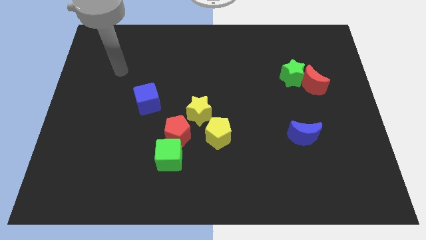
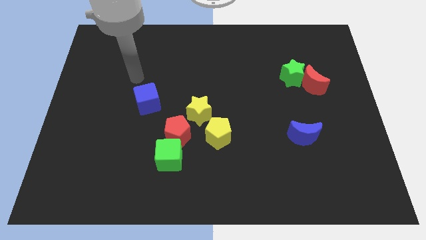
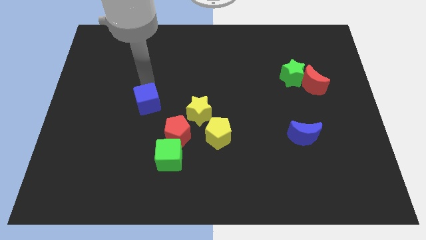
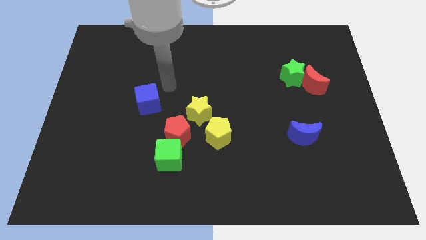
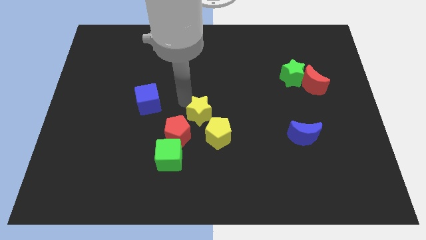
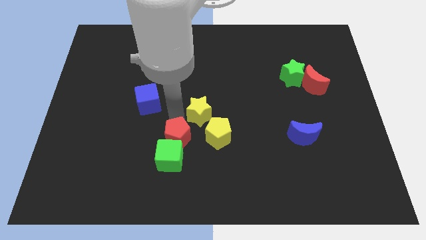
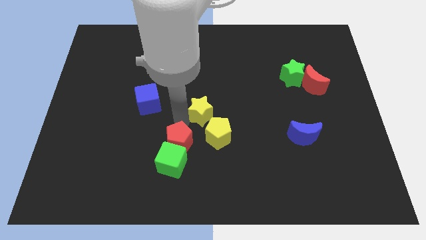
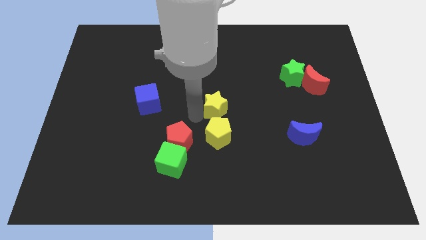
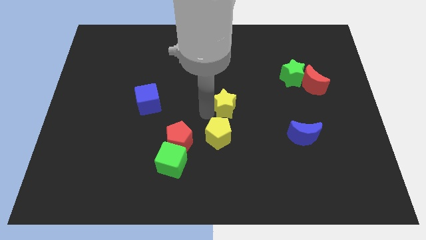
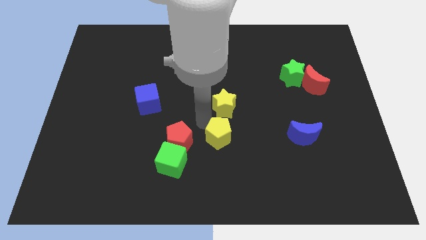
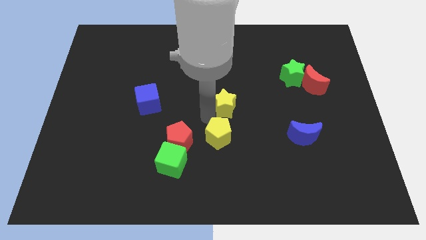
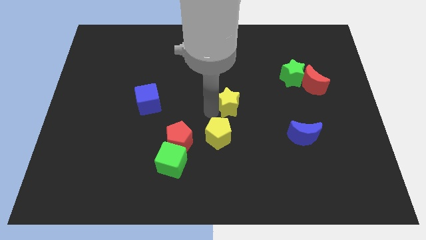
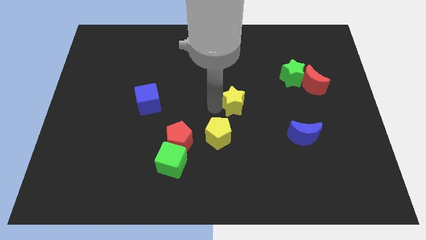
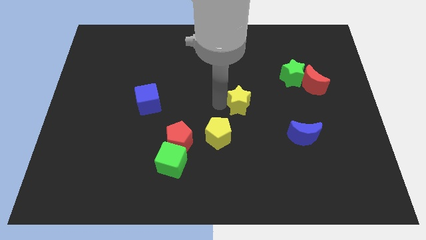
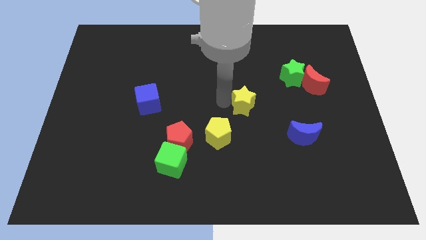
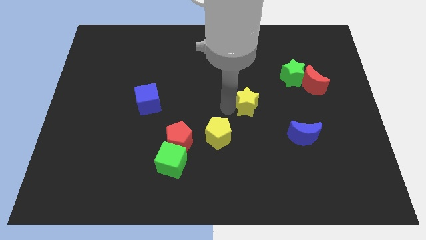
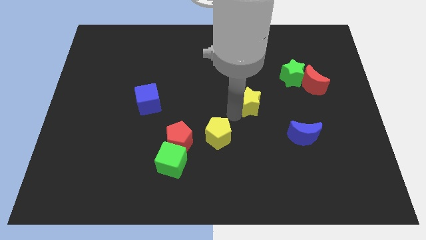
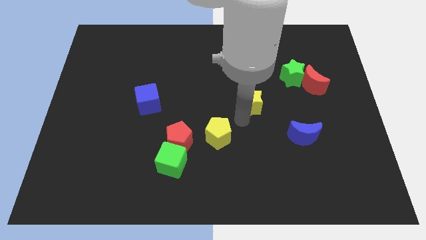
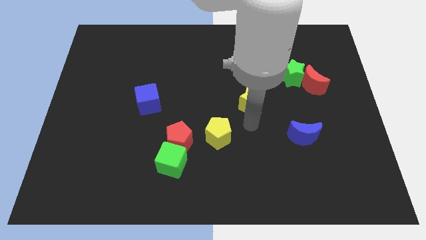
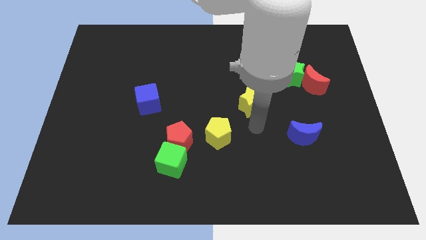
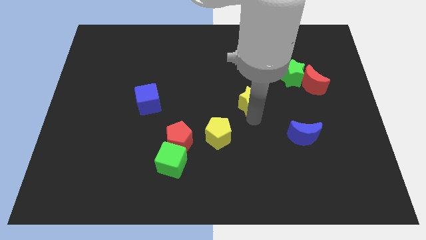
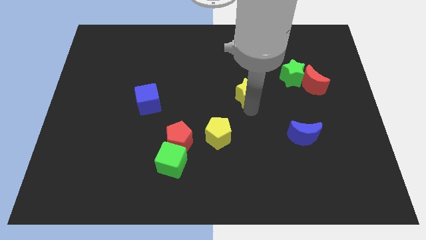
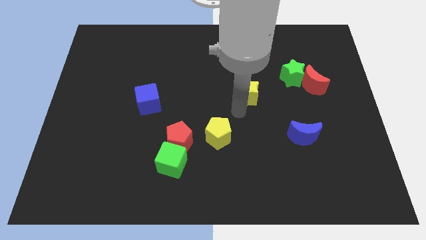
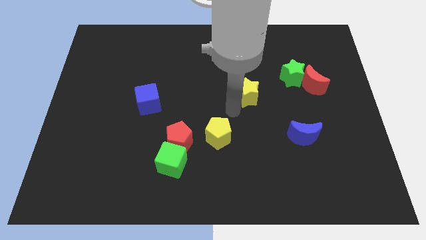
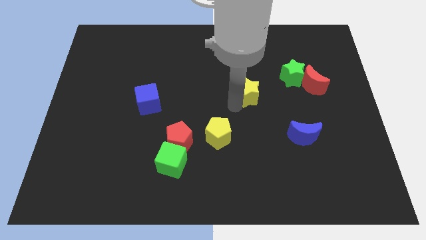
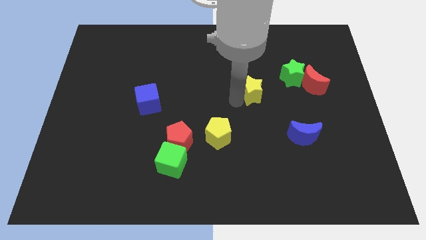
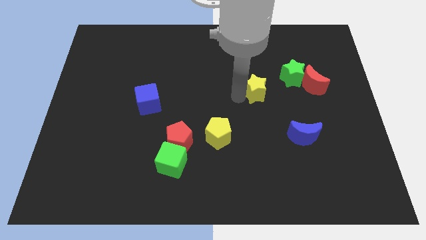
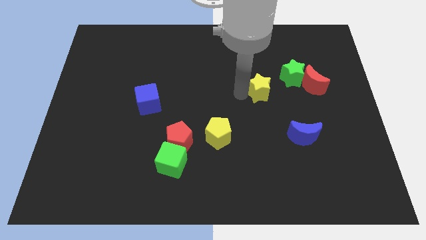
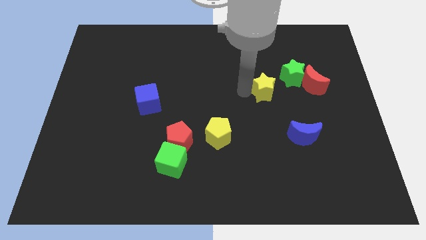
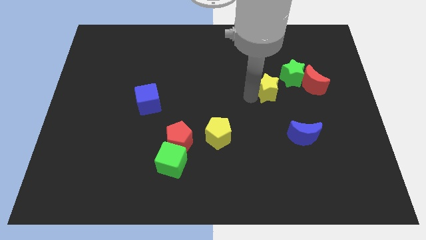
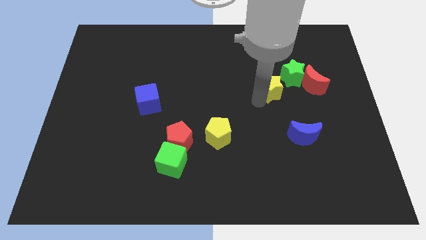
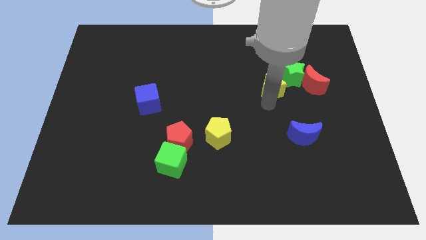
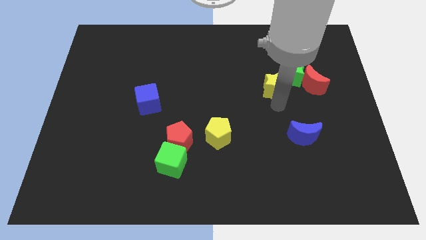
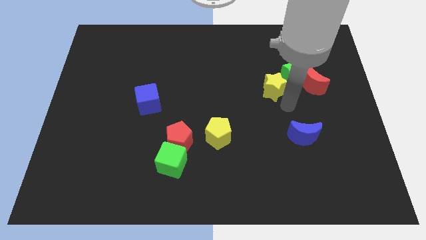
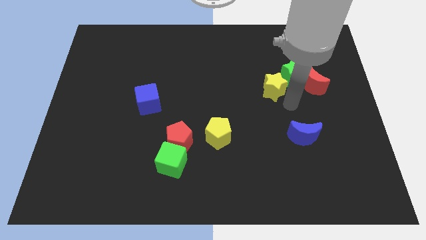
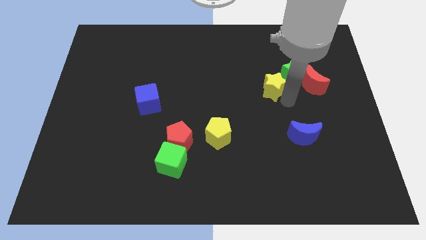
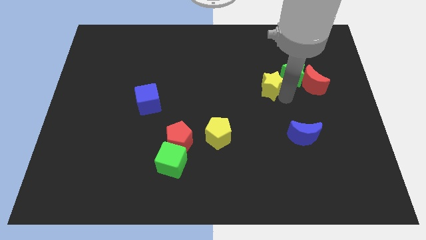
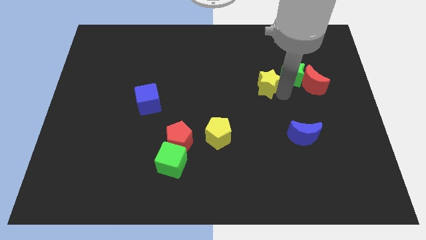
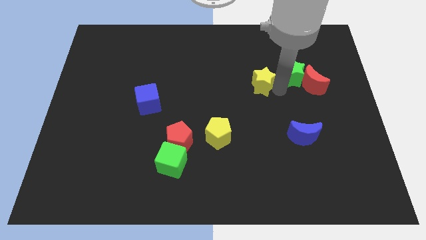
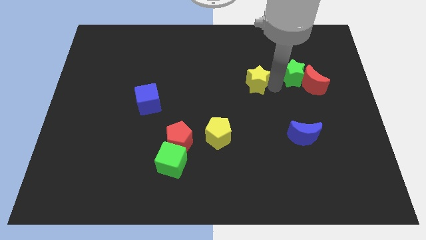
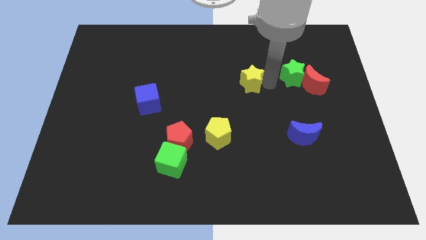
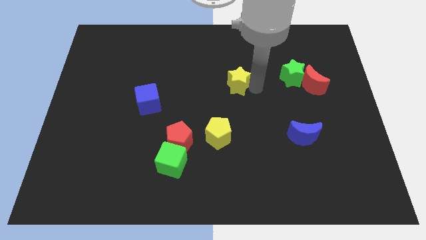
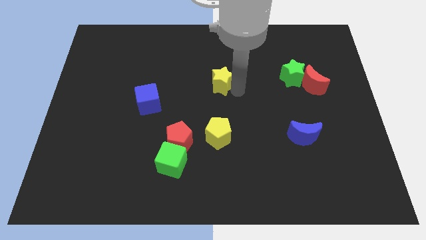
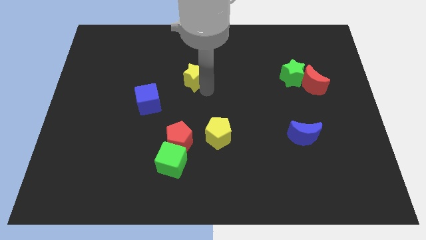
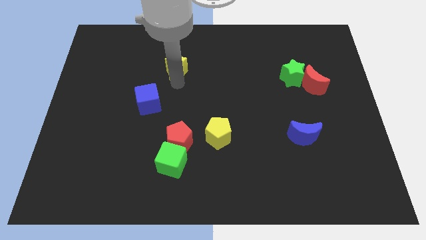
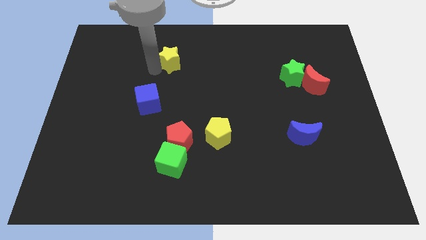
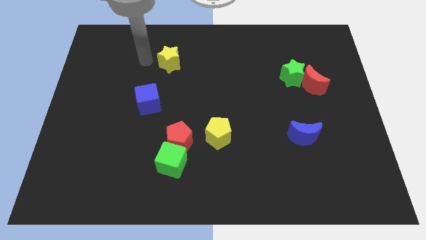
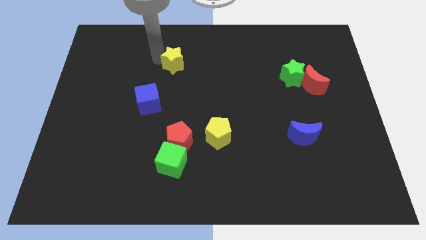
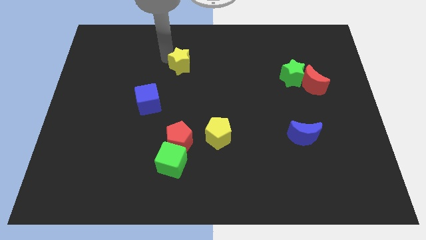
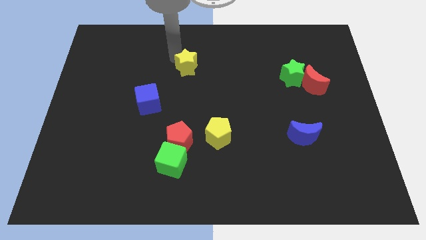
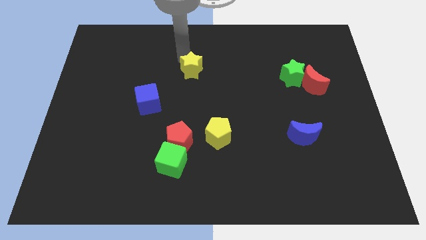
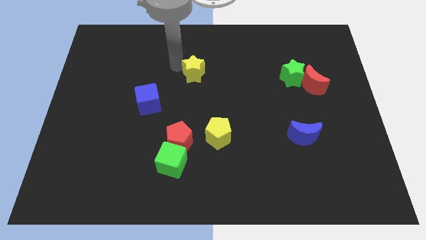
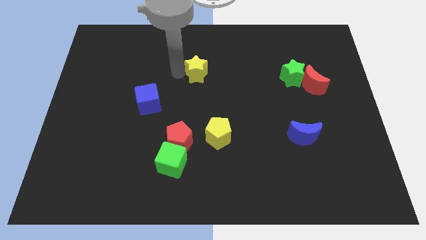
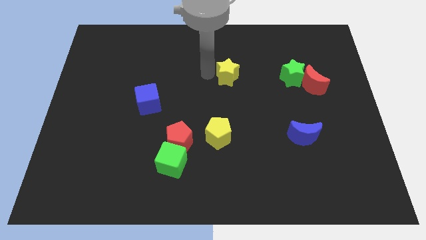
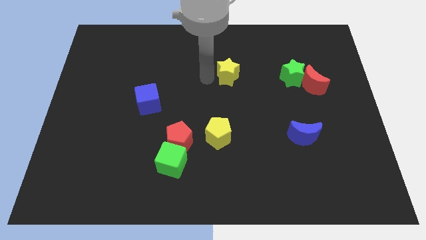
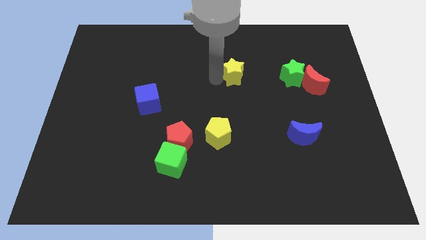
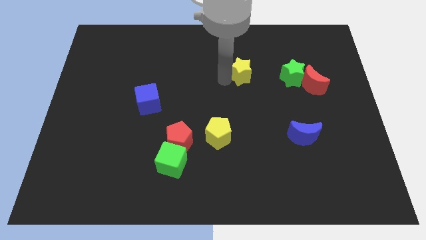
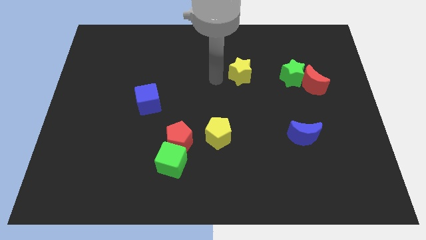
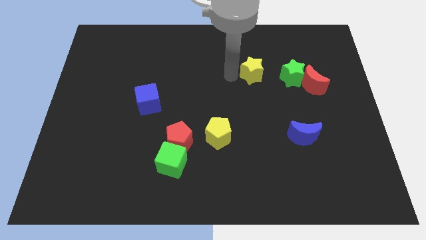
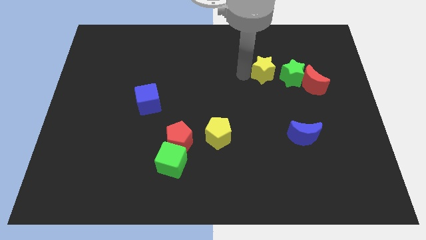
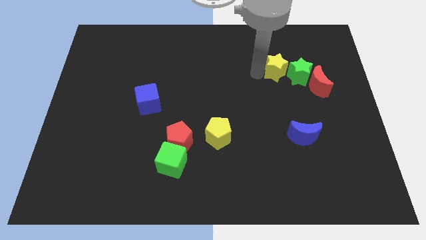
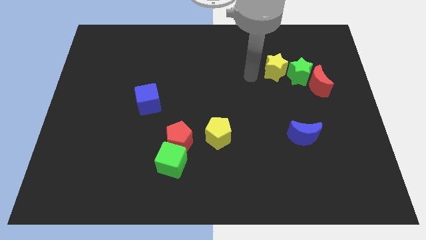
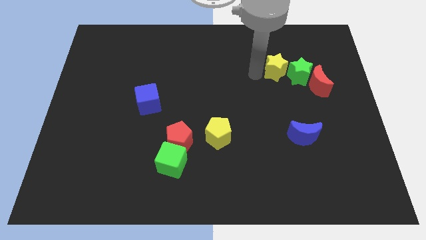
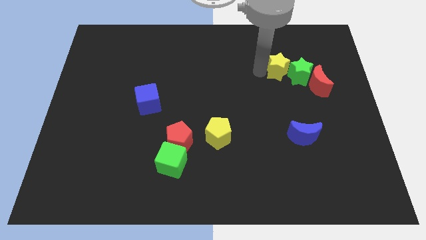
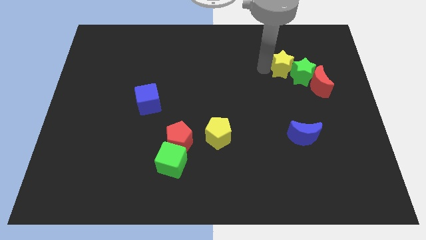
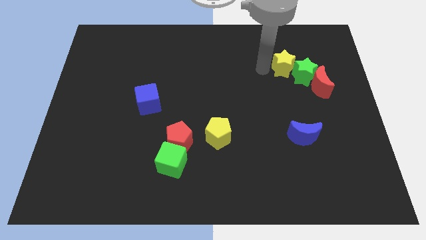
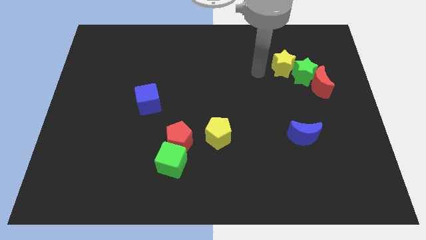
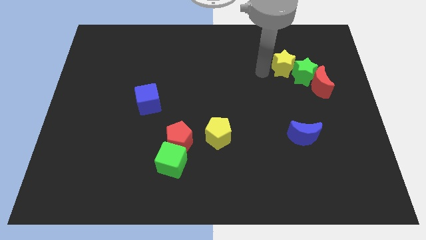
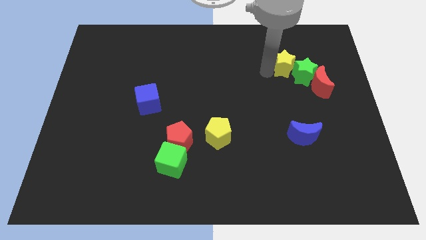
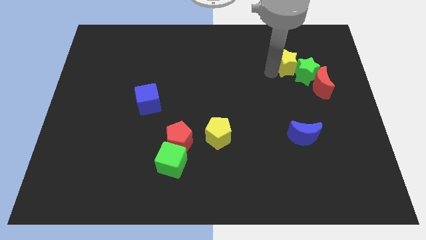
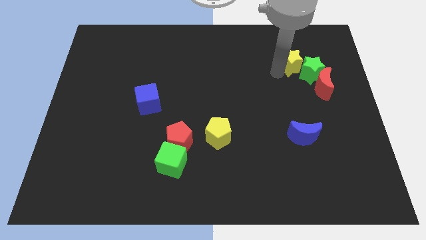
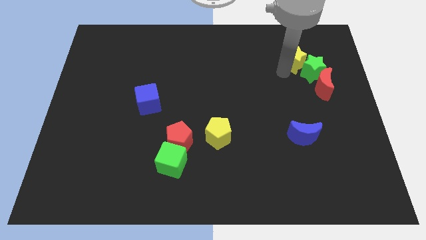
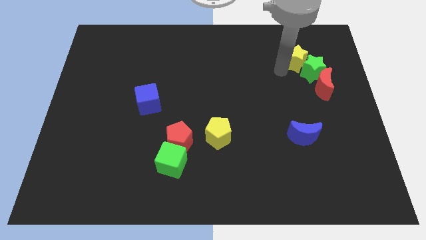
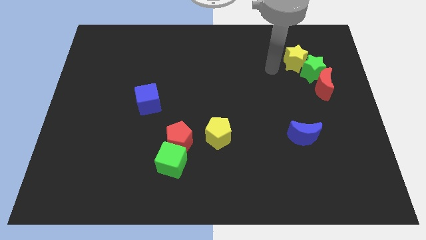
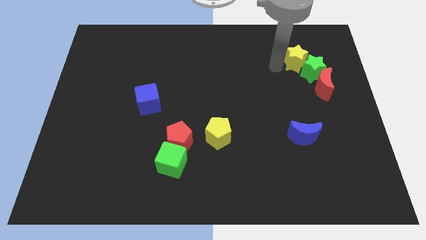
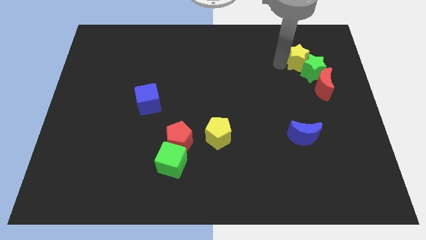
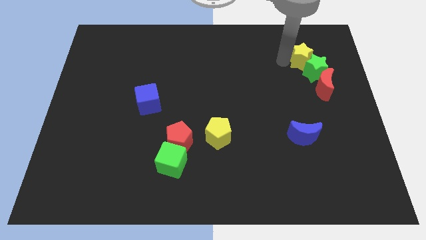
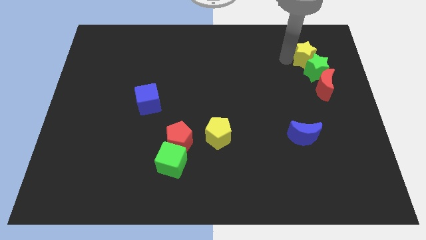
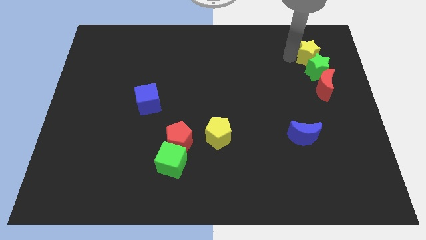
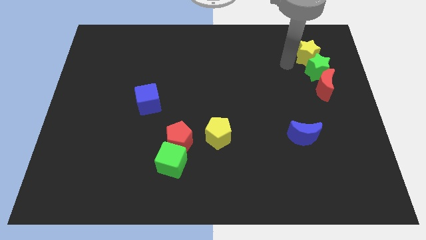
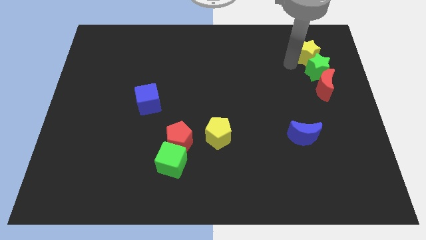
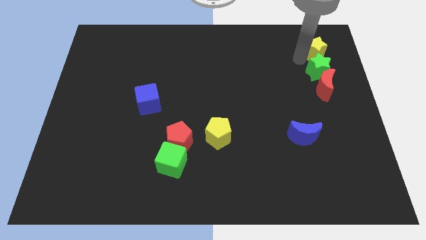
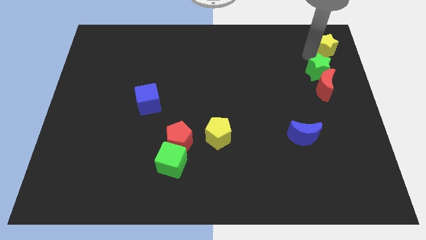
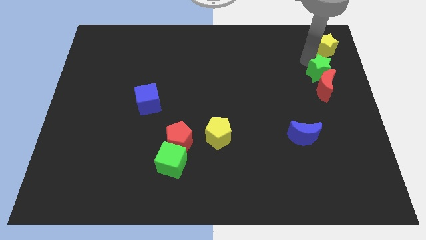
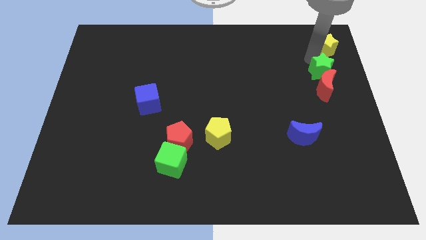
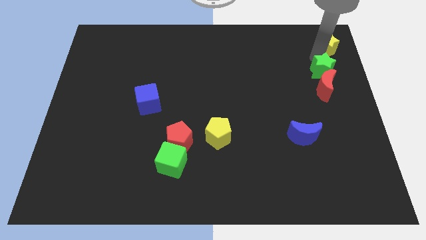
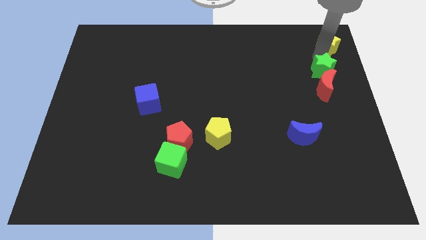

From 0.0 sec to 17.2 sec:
put the yellow star to the top right corner
